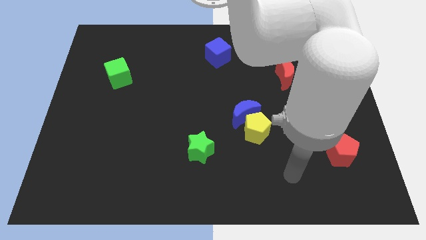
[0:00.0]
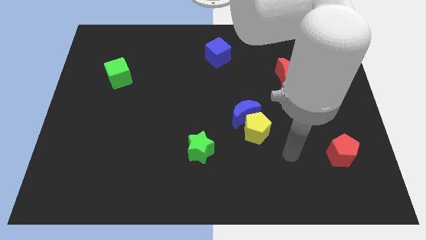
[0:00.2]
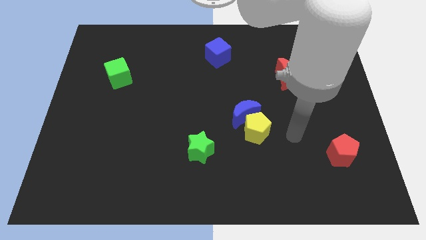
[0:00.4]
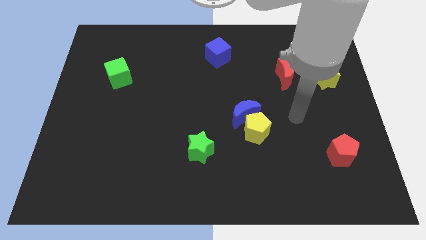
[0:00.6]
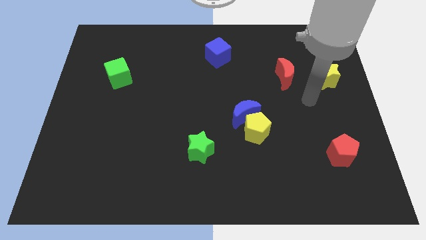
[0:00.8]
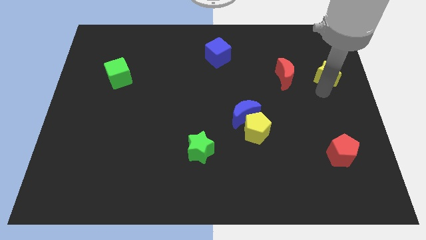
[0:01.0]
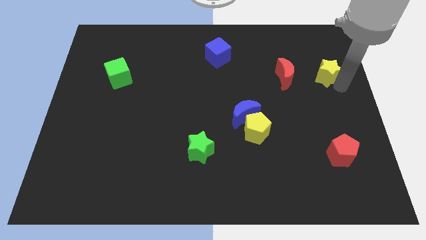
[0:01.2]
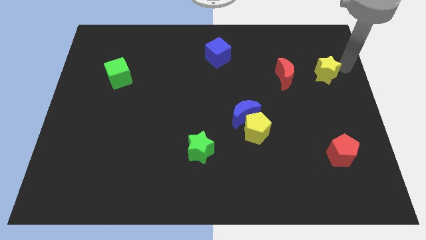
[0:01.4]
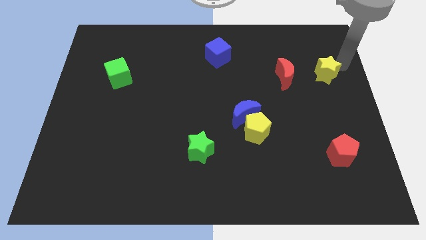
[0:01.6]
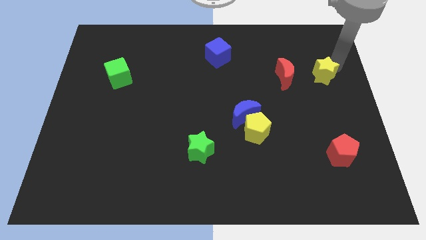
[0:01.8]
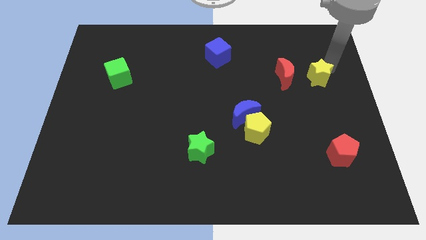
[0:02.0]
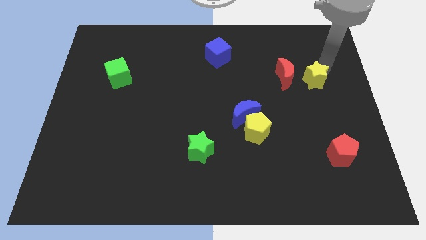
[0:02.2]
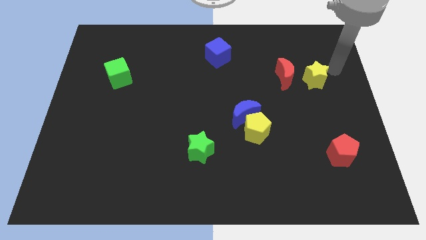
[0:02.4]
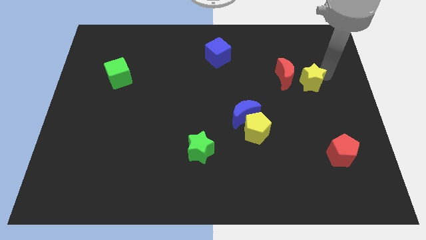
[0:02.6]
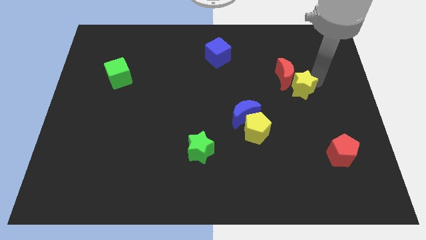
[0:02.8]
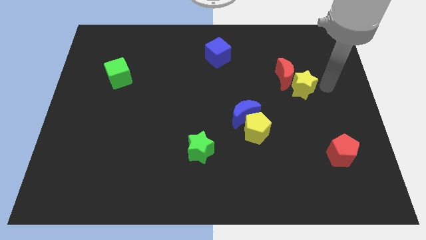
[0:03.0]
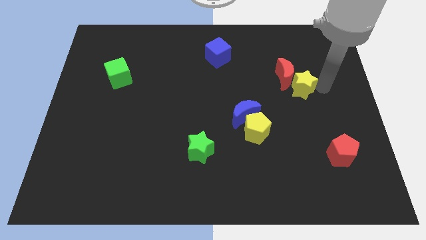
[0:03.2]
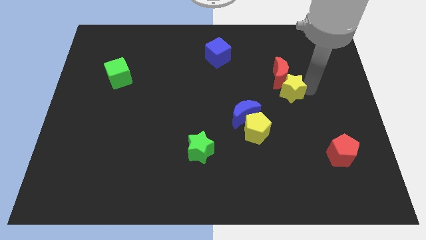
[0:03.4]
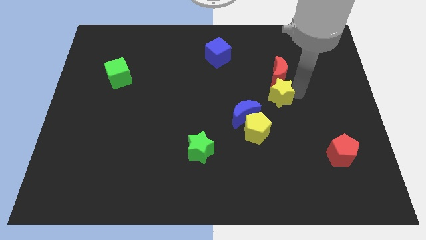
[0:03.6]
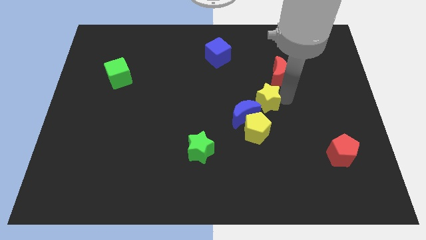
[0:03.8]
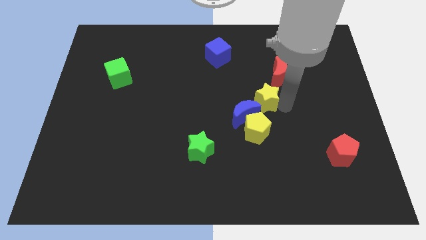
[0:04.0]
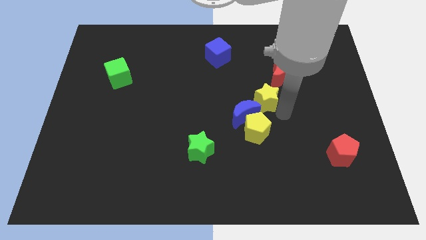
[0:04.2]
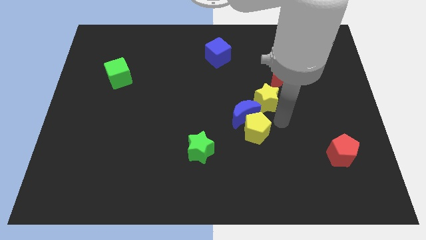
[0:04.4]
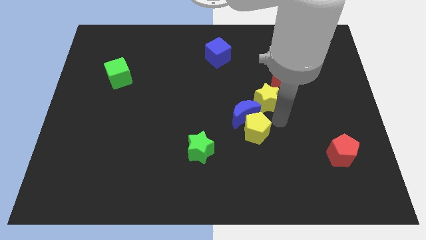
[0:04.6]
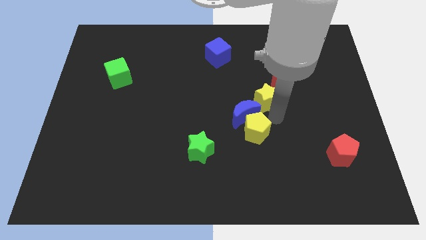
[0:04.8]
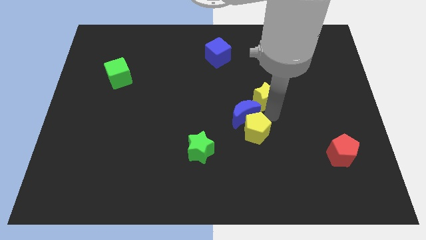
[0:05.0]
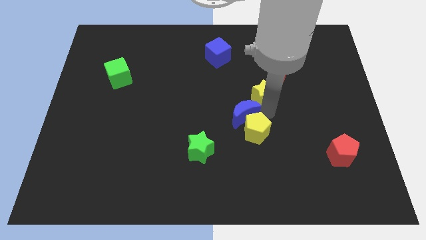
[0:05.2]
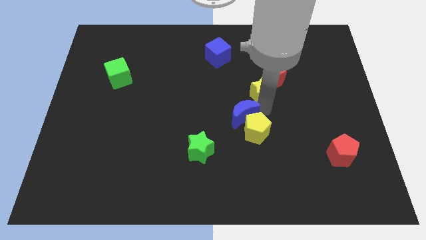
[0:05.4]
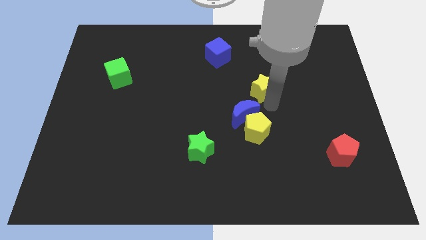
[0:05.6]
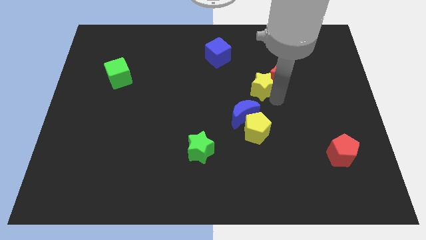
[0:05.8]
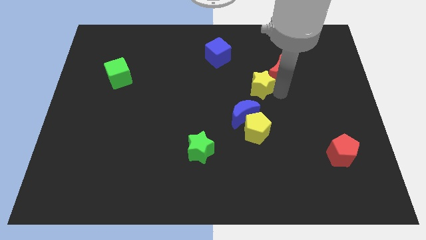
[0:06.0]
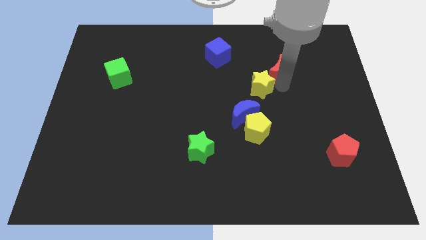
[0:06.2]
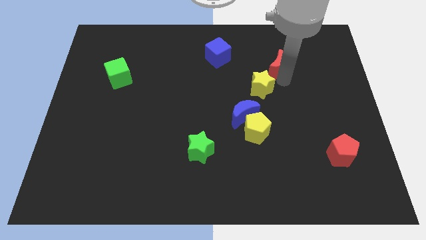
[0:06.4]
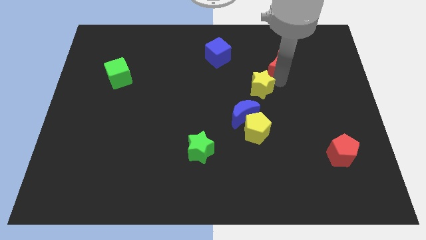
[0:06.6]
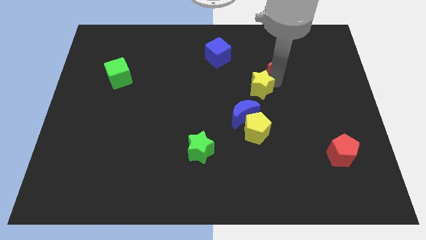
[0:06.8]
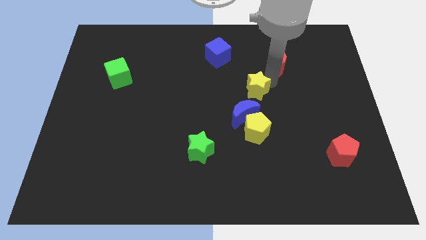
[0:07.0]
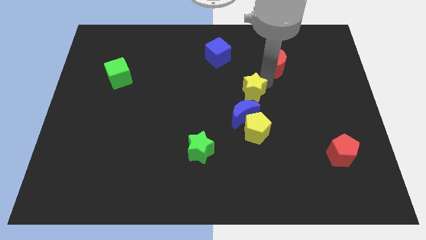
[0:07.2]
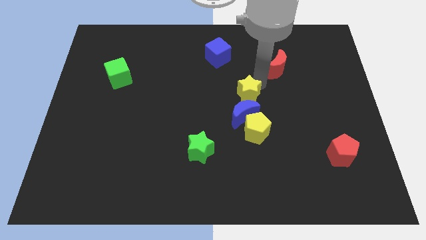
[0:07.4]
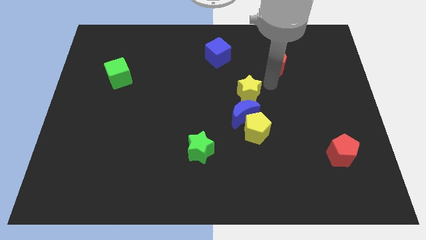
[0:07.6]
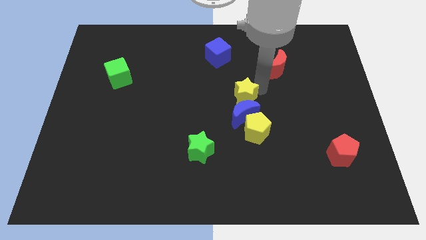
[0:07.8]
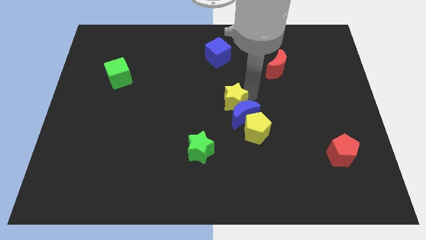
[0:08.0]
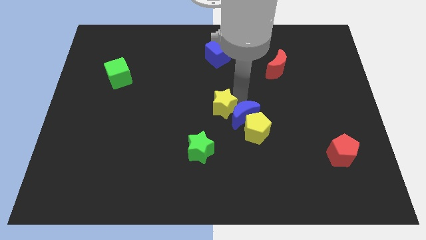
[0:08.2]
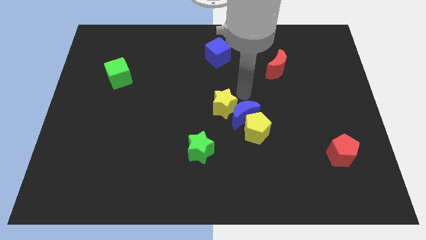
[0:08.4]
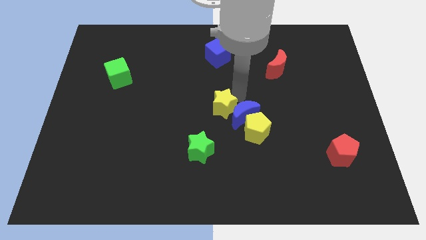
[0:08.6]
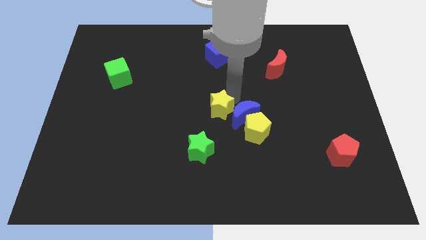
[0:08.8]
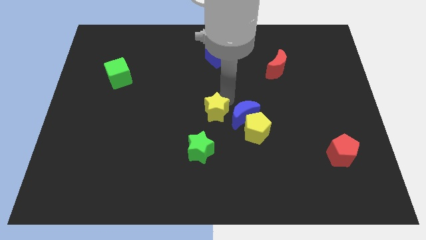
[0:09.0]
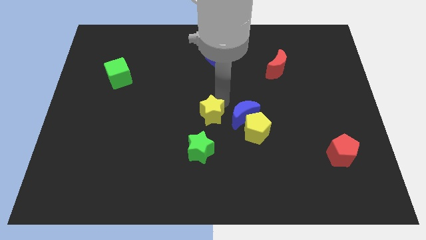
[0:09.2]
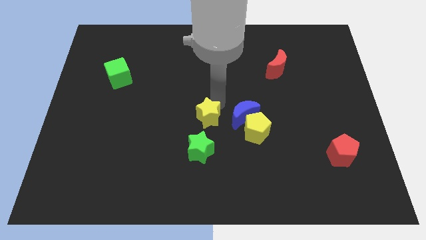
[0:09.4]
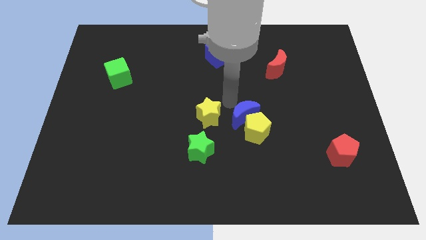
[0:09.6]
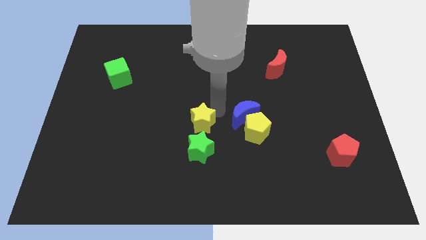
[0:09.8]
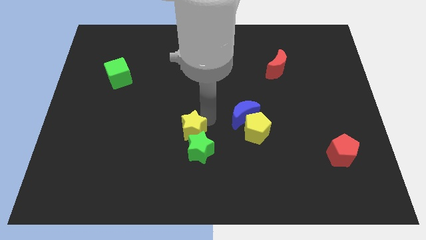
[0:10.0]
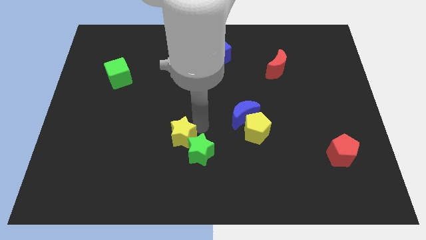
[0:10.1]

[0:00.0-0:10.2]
slide the yellow star to the left side of the green star

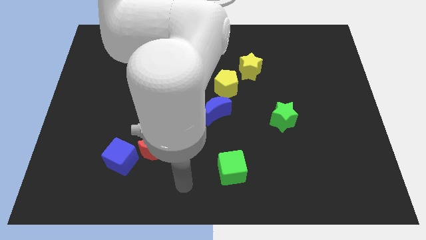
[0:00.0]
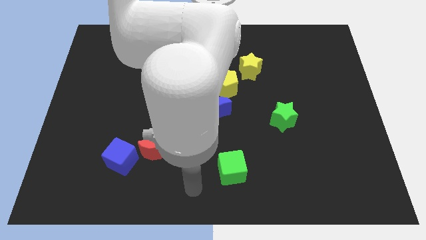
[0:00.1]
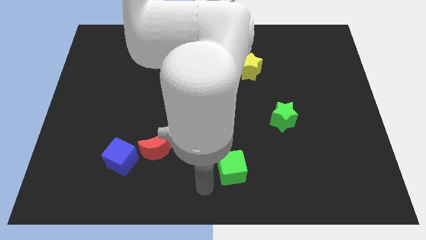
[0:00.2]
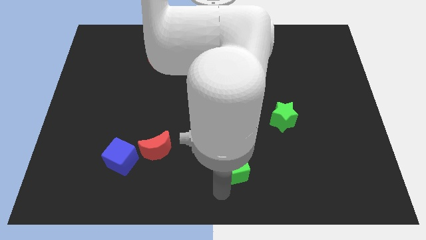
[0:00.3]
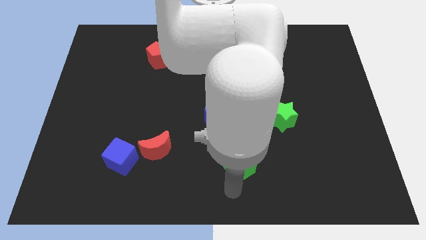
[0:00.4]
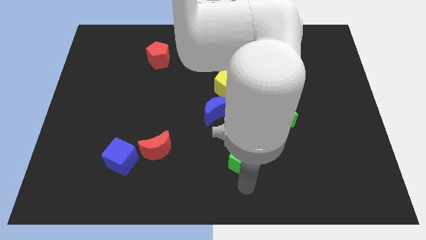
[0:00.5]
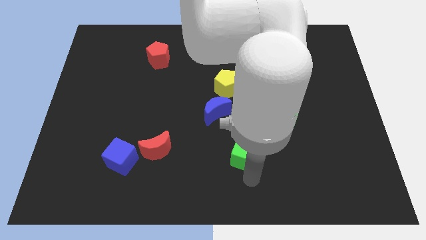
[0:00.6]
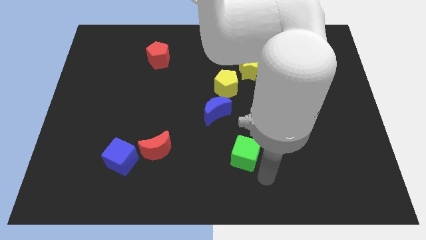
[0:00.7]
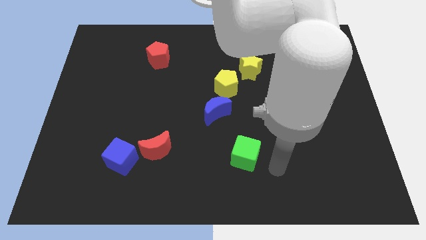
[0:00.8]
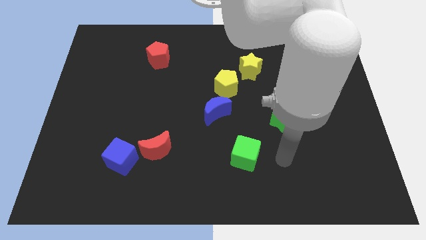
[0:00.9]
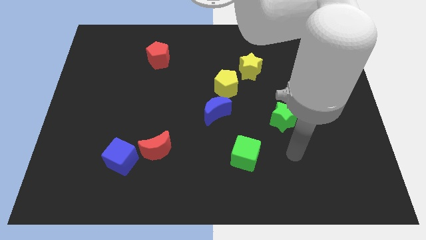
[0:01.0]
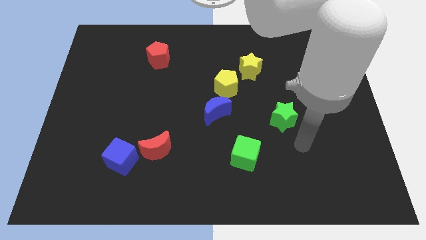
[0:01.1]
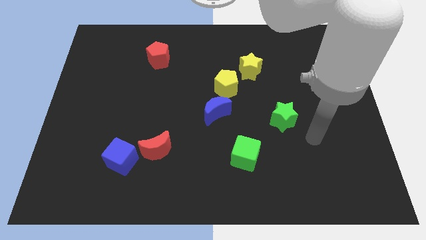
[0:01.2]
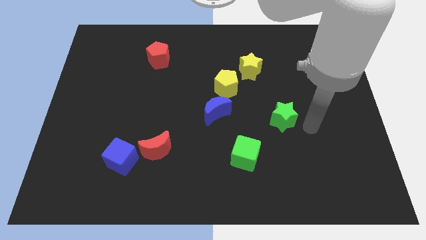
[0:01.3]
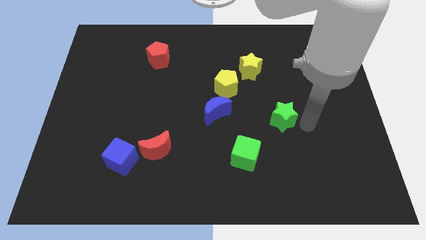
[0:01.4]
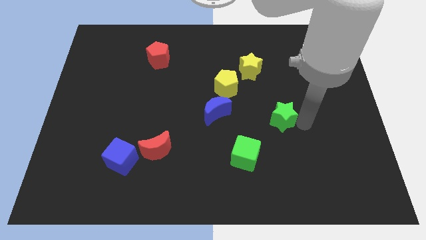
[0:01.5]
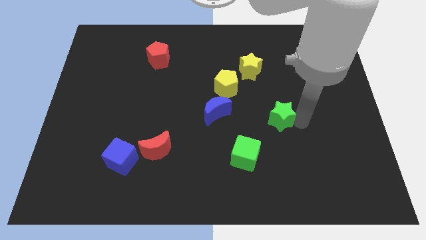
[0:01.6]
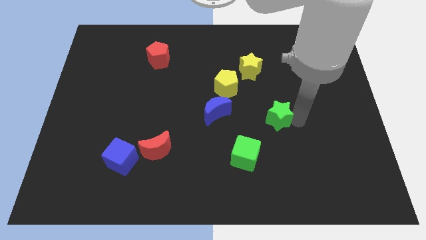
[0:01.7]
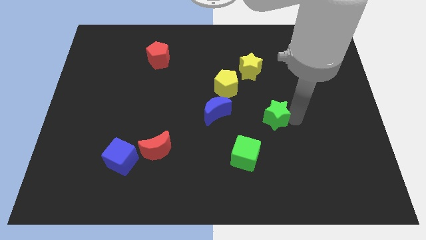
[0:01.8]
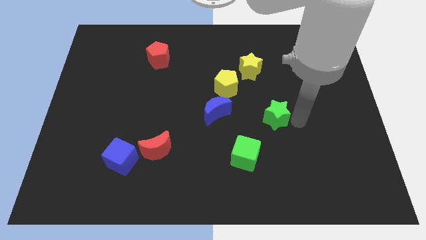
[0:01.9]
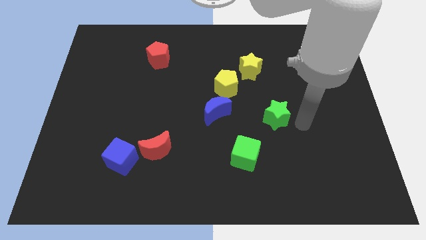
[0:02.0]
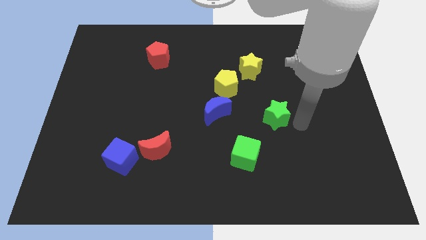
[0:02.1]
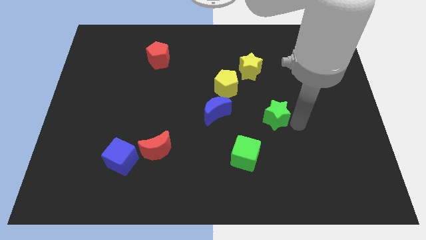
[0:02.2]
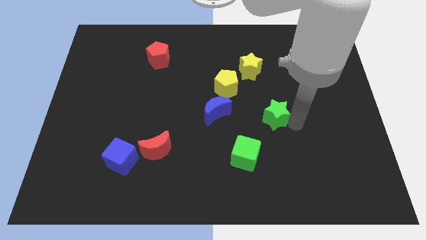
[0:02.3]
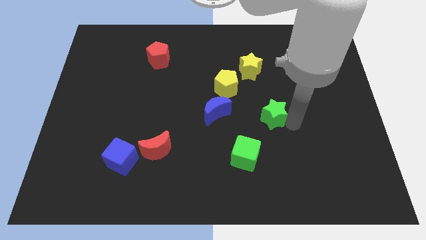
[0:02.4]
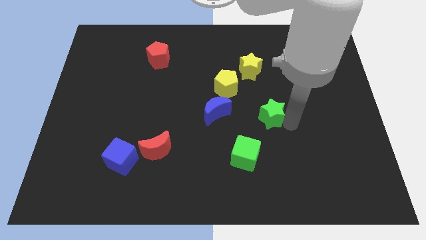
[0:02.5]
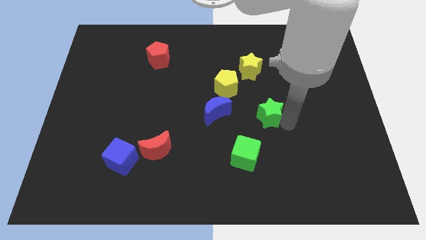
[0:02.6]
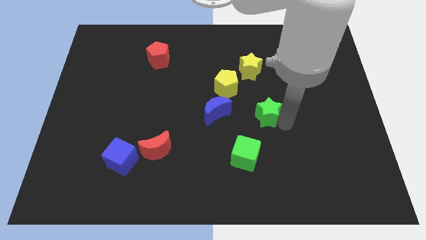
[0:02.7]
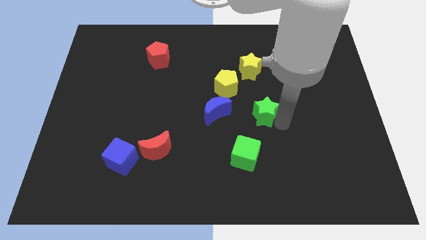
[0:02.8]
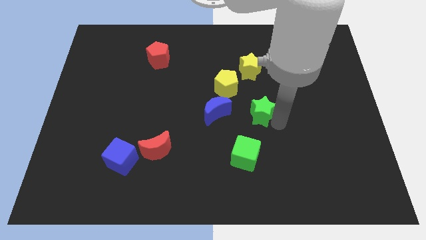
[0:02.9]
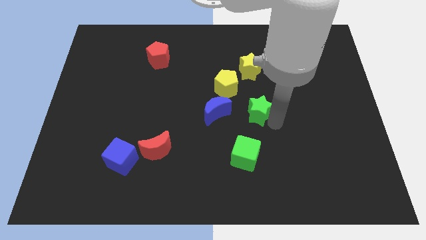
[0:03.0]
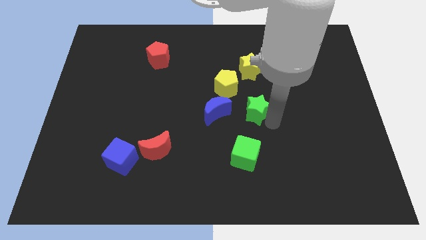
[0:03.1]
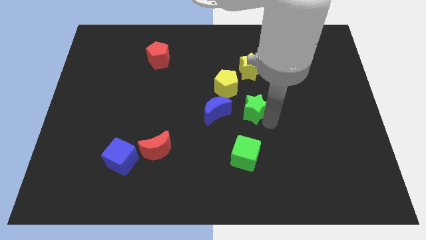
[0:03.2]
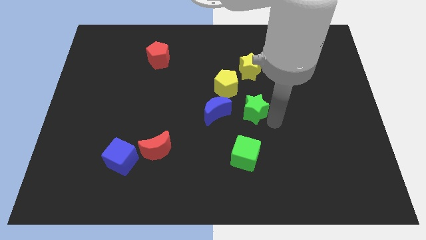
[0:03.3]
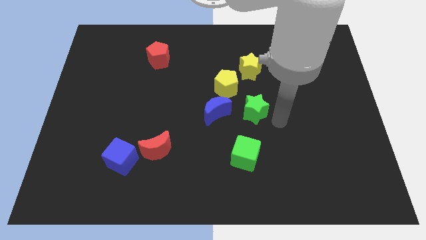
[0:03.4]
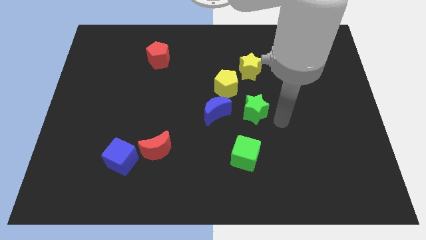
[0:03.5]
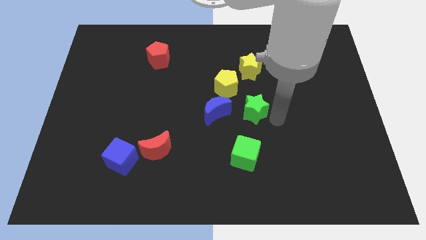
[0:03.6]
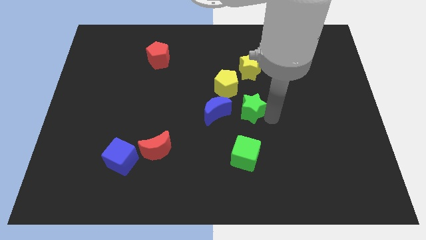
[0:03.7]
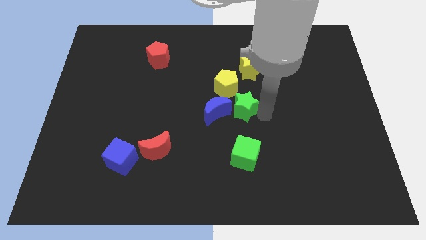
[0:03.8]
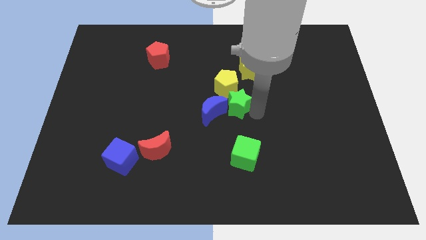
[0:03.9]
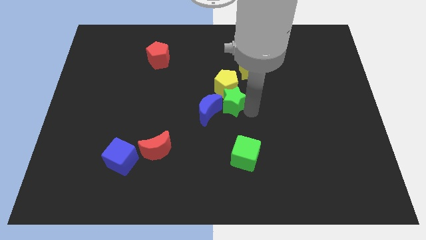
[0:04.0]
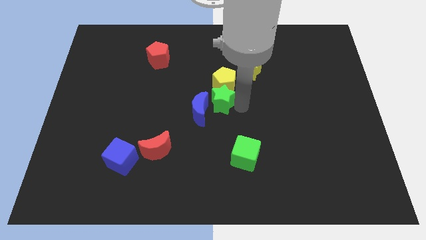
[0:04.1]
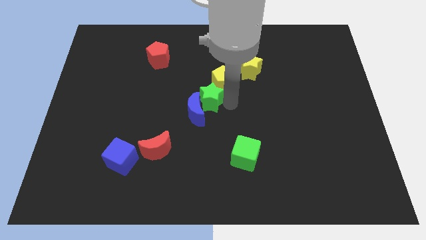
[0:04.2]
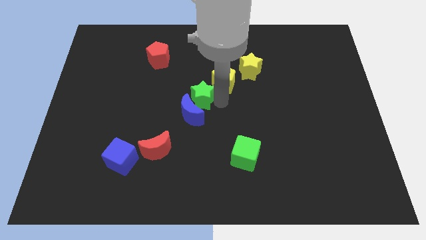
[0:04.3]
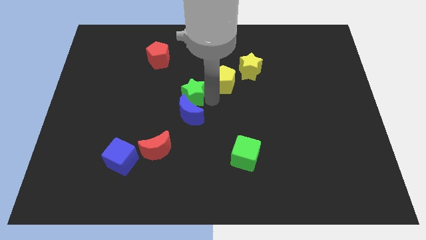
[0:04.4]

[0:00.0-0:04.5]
put the green star diagonally up and to the left of the blue moon
